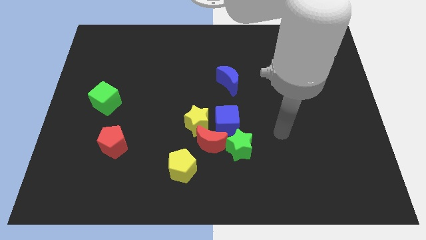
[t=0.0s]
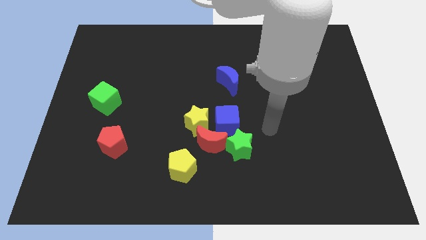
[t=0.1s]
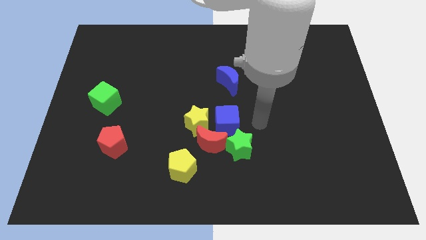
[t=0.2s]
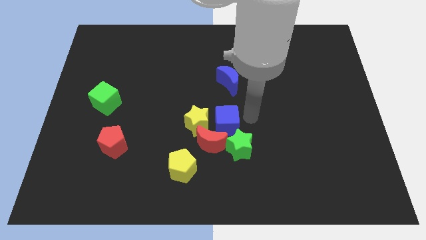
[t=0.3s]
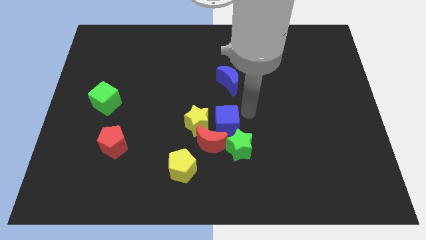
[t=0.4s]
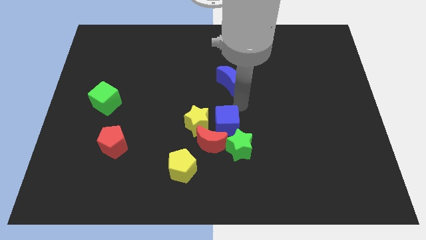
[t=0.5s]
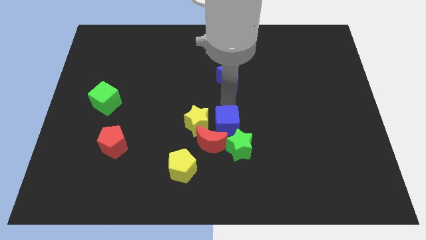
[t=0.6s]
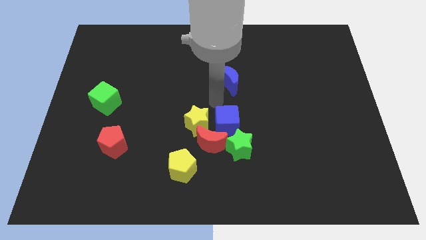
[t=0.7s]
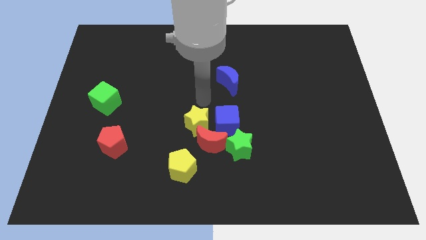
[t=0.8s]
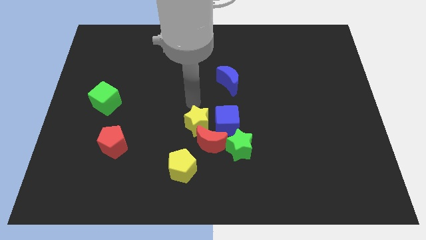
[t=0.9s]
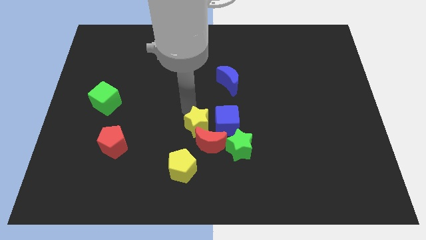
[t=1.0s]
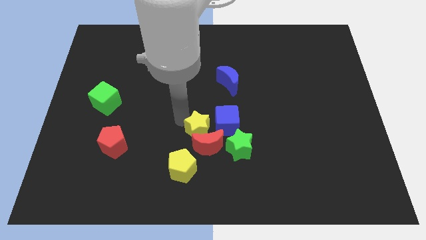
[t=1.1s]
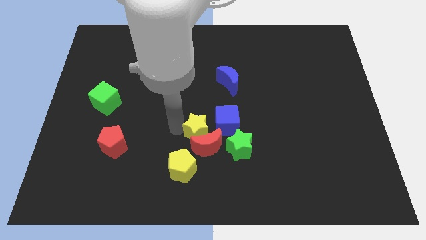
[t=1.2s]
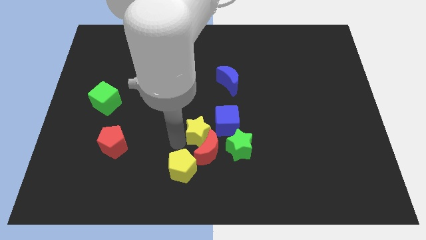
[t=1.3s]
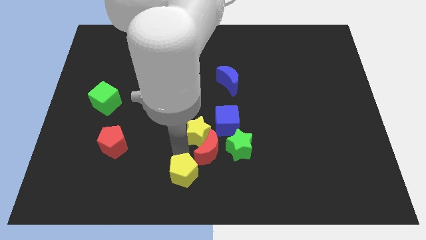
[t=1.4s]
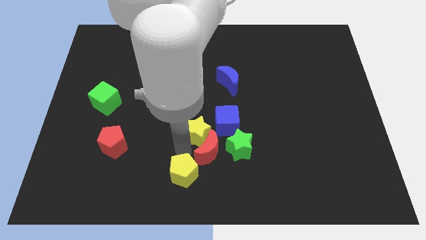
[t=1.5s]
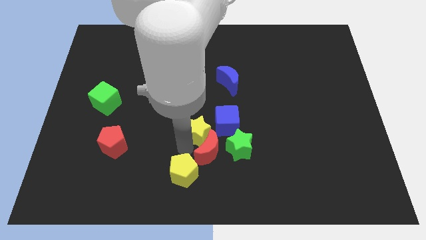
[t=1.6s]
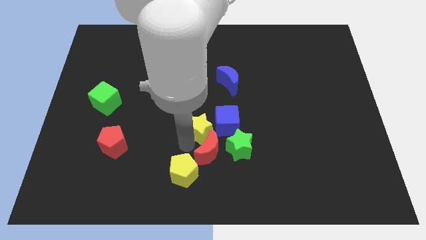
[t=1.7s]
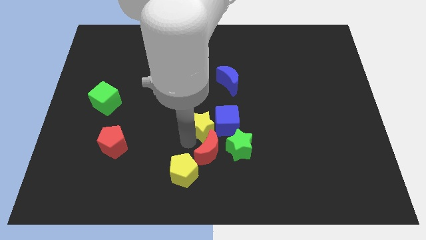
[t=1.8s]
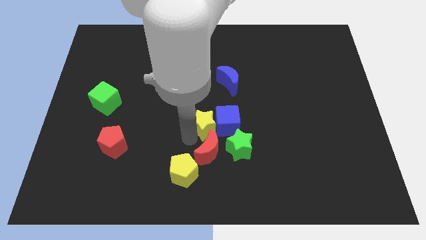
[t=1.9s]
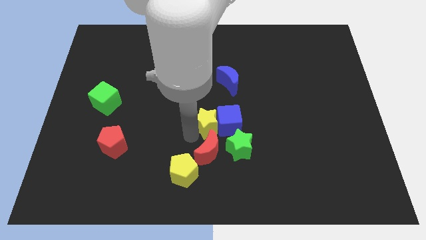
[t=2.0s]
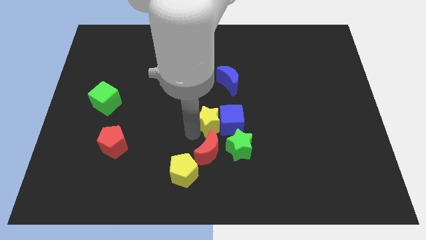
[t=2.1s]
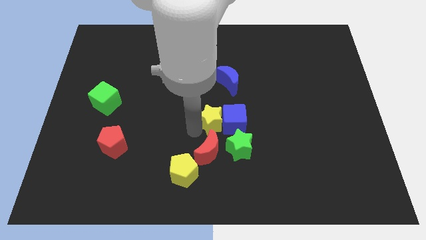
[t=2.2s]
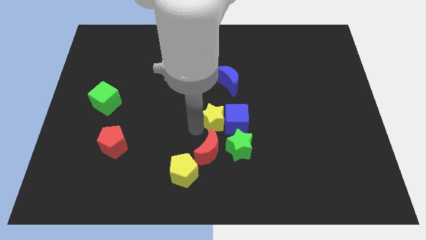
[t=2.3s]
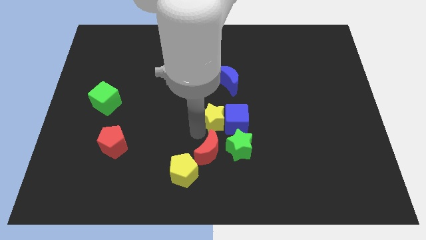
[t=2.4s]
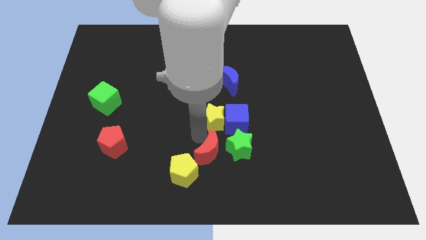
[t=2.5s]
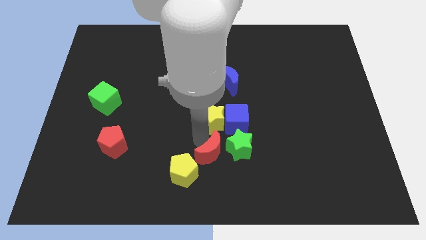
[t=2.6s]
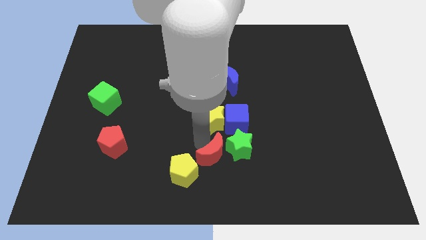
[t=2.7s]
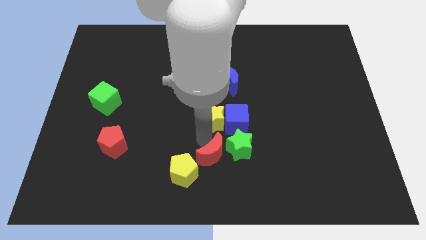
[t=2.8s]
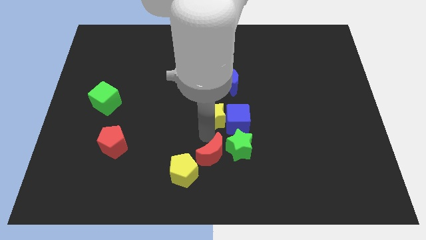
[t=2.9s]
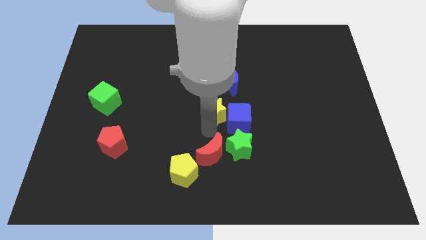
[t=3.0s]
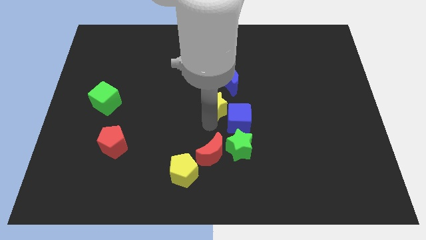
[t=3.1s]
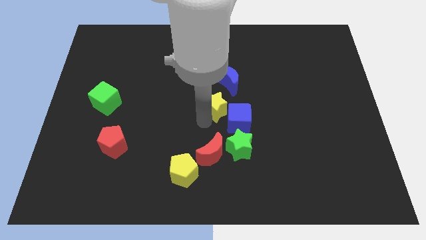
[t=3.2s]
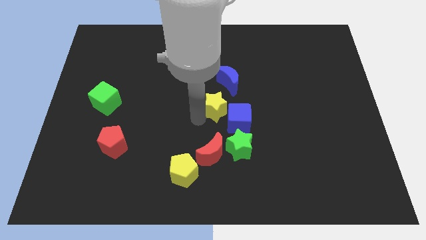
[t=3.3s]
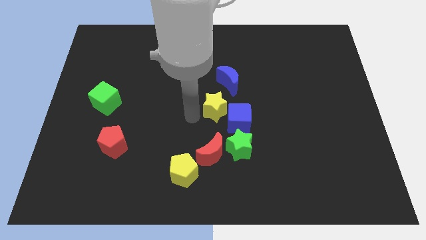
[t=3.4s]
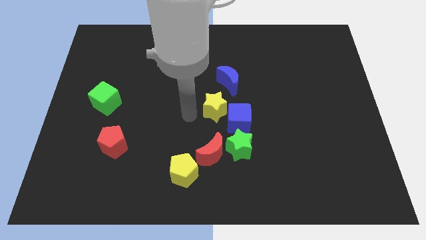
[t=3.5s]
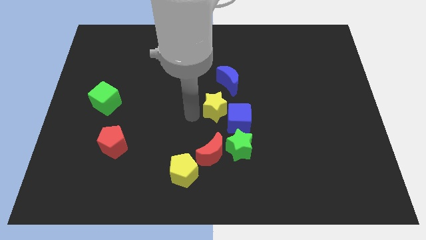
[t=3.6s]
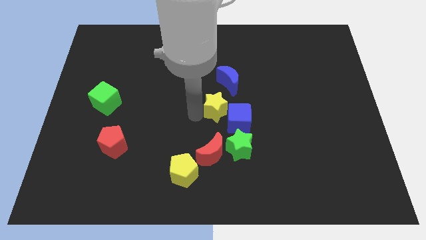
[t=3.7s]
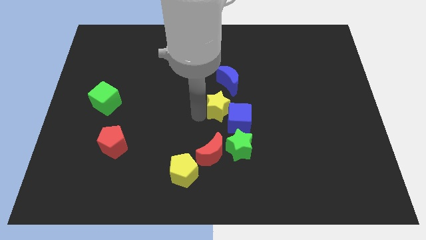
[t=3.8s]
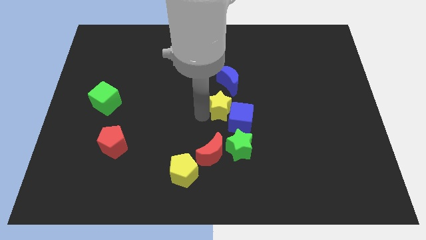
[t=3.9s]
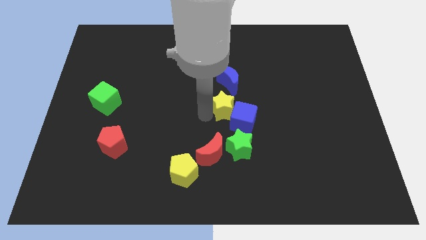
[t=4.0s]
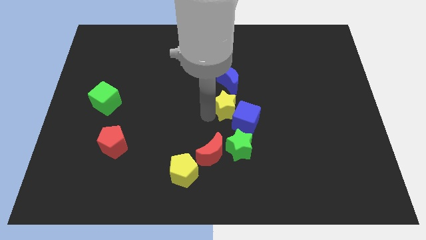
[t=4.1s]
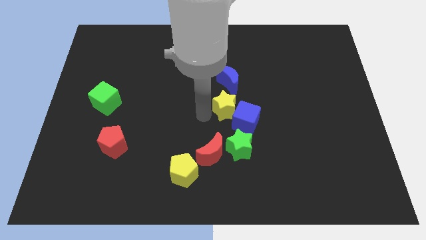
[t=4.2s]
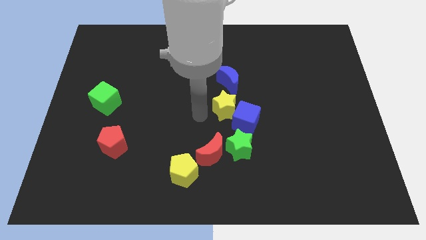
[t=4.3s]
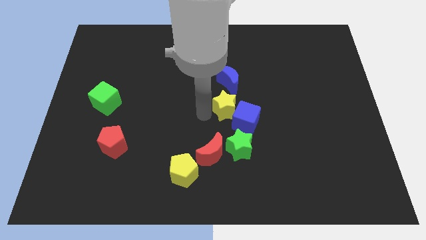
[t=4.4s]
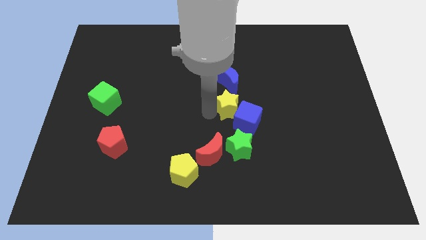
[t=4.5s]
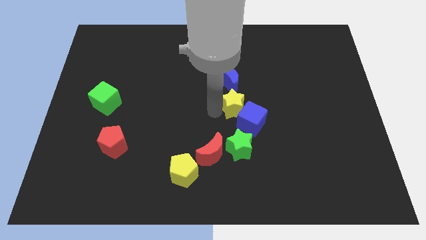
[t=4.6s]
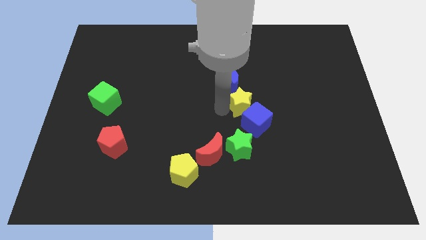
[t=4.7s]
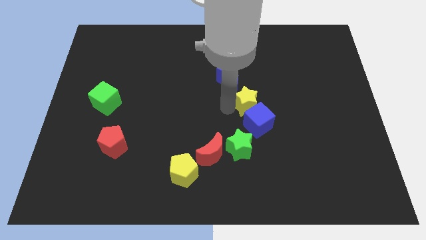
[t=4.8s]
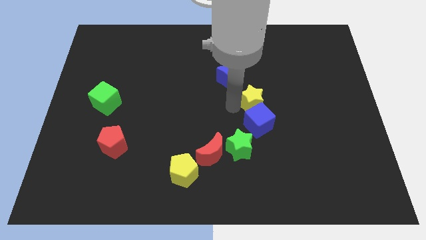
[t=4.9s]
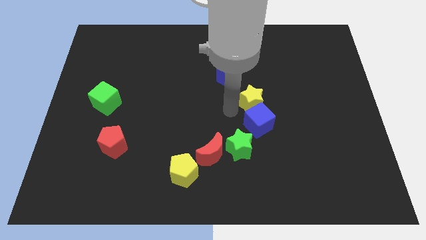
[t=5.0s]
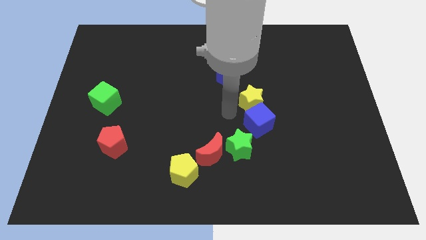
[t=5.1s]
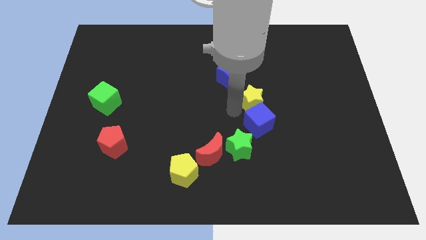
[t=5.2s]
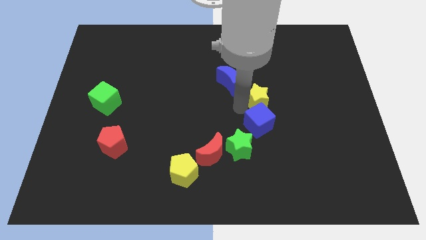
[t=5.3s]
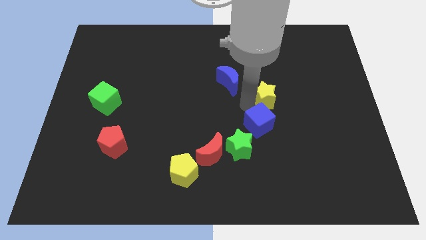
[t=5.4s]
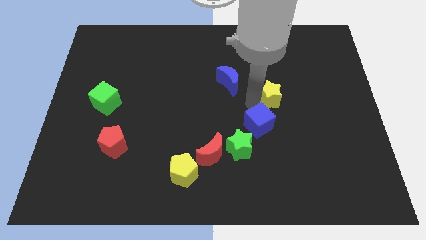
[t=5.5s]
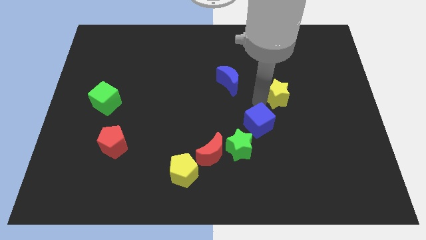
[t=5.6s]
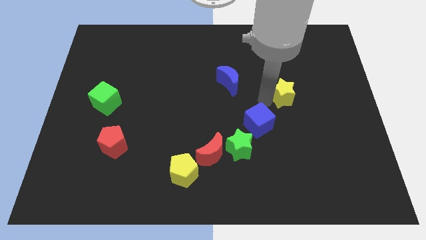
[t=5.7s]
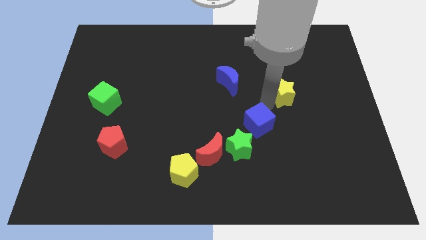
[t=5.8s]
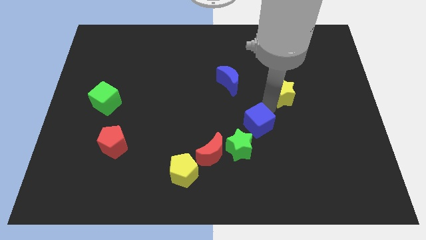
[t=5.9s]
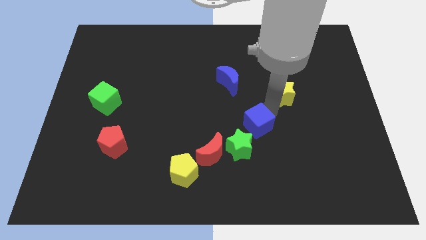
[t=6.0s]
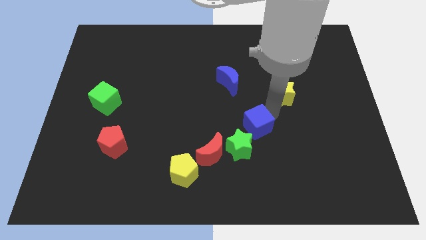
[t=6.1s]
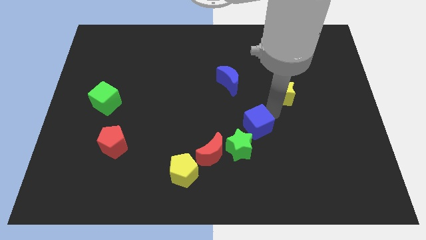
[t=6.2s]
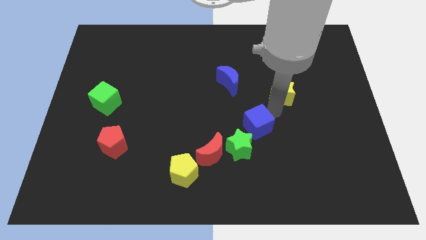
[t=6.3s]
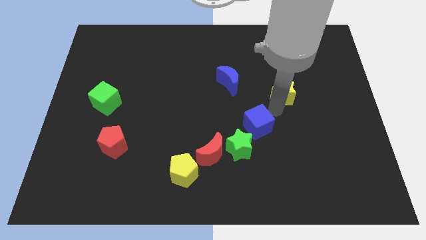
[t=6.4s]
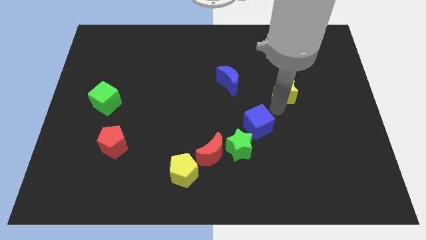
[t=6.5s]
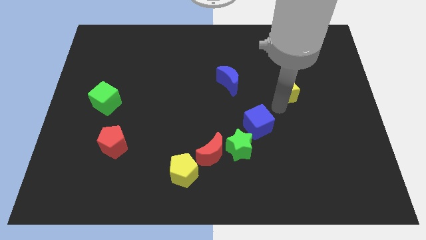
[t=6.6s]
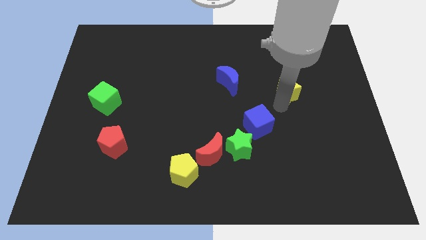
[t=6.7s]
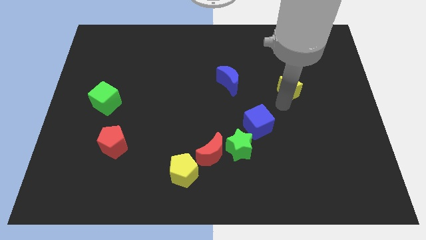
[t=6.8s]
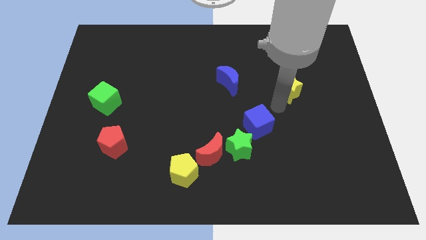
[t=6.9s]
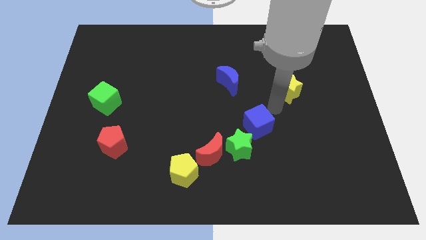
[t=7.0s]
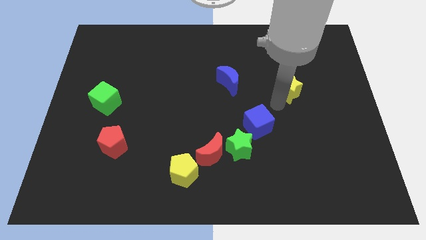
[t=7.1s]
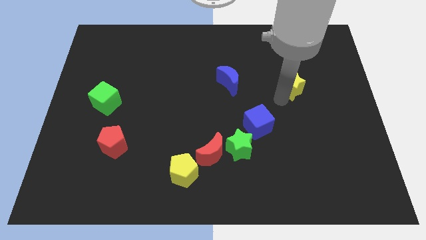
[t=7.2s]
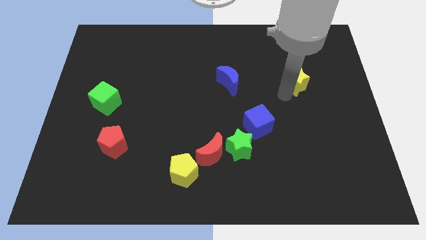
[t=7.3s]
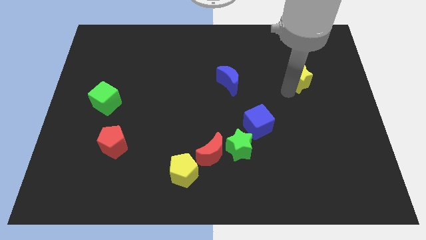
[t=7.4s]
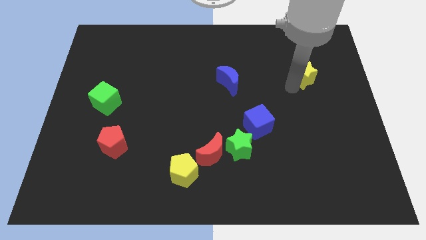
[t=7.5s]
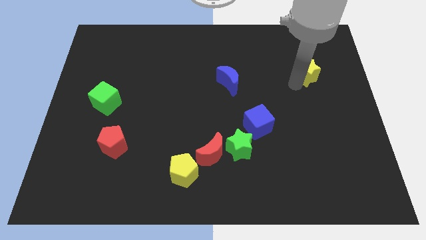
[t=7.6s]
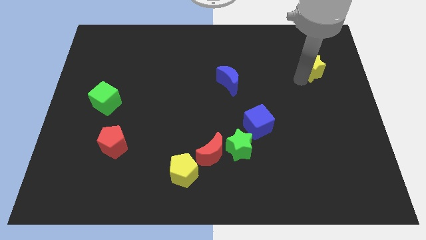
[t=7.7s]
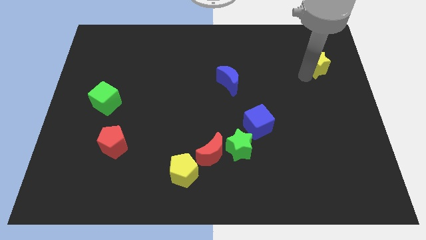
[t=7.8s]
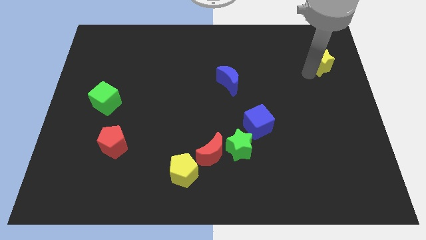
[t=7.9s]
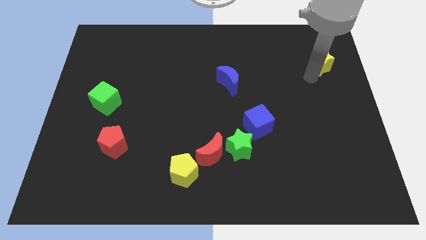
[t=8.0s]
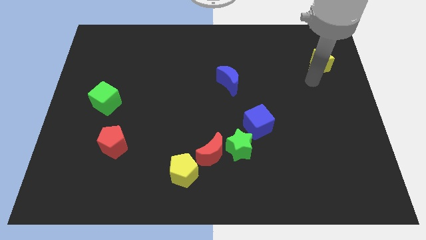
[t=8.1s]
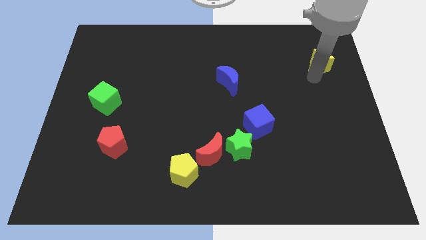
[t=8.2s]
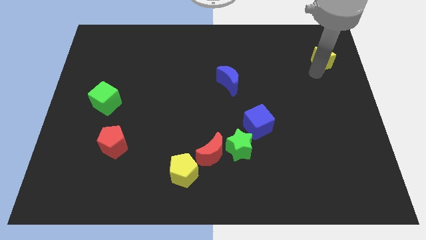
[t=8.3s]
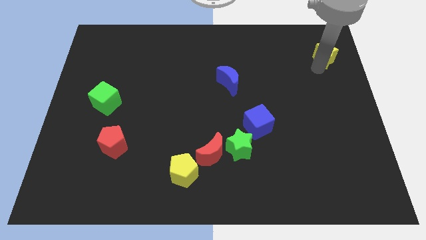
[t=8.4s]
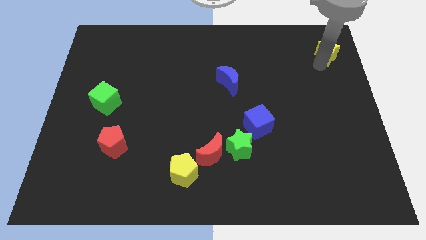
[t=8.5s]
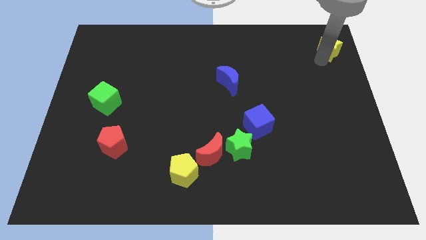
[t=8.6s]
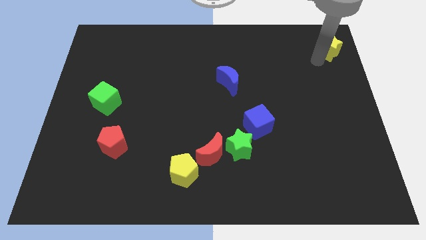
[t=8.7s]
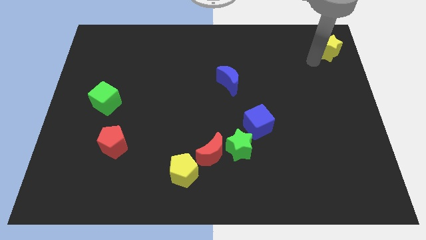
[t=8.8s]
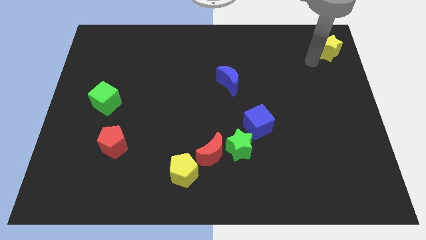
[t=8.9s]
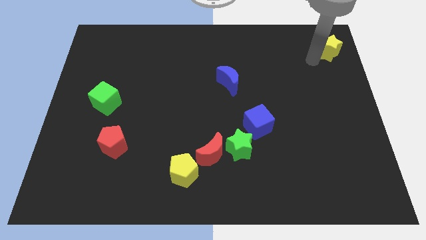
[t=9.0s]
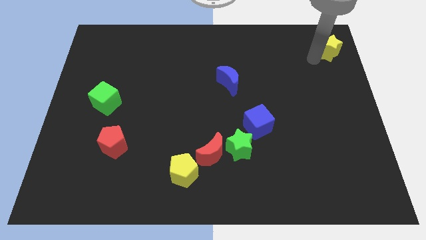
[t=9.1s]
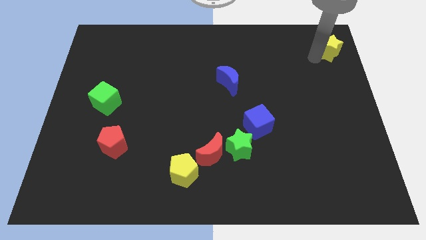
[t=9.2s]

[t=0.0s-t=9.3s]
slide the yellow star to the top right
